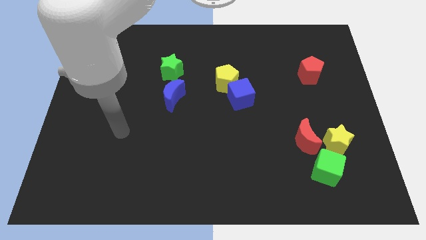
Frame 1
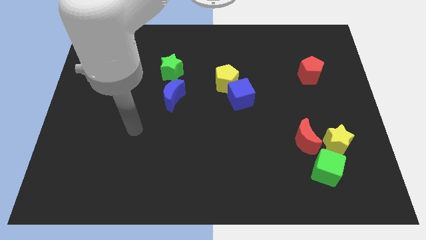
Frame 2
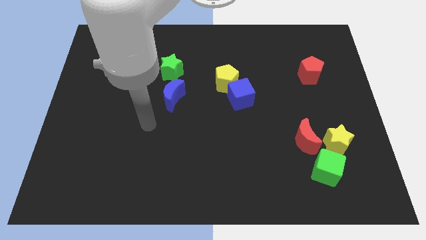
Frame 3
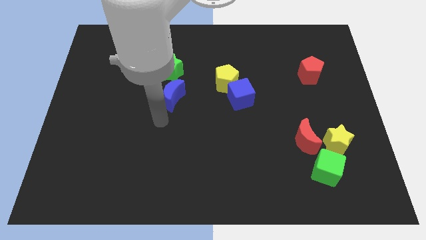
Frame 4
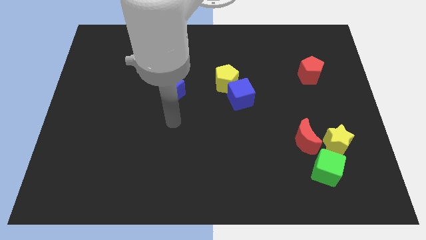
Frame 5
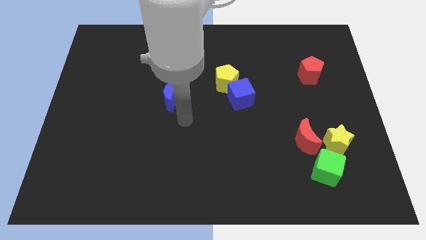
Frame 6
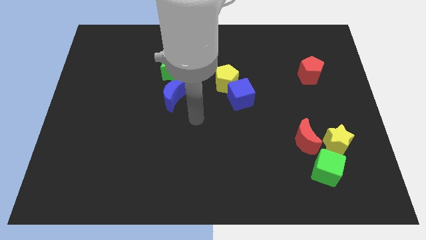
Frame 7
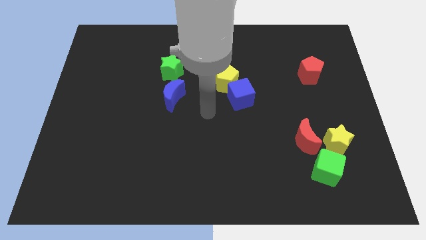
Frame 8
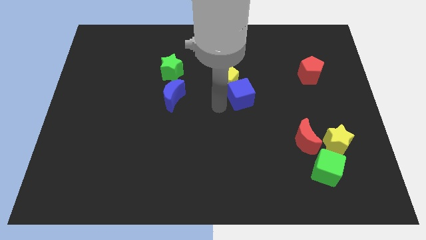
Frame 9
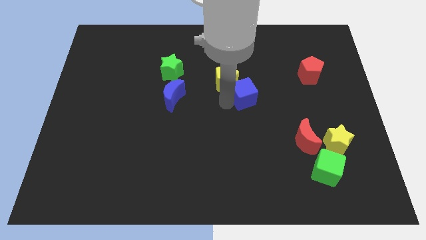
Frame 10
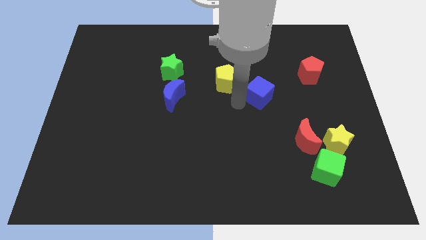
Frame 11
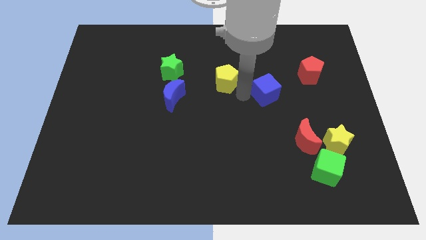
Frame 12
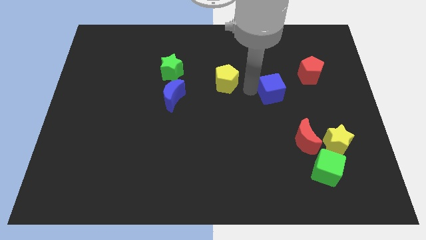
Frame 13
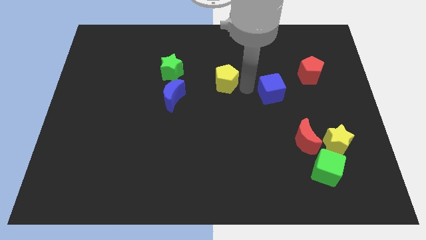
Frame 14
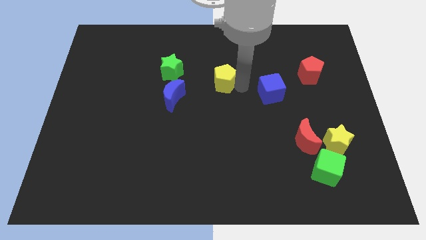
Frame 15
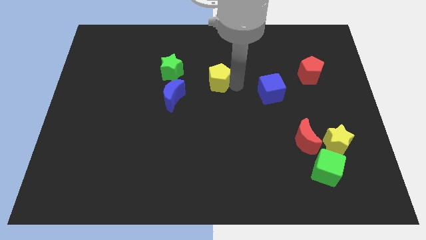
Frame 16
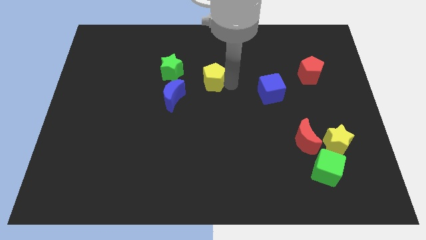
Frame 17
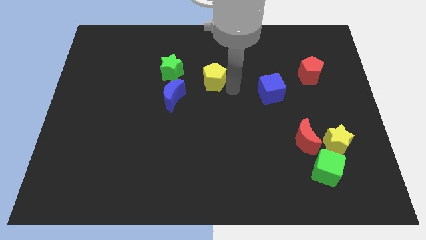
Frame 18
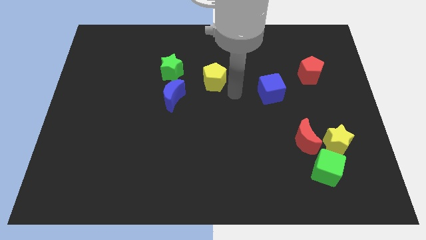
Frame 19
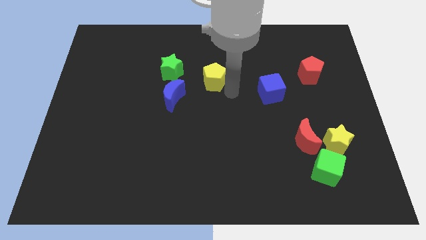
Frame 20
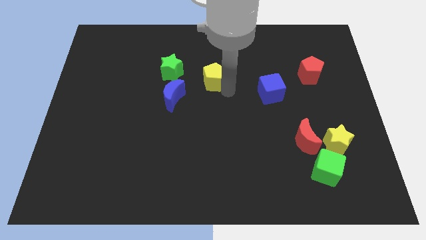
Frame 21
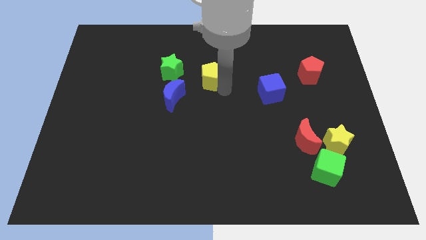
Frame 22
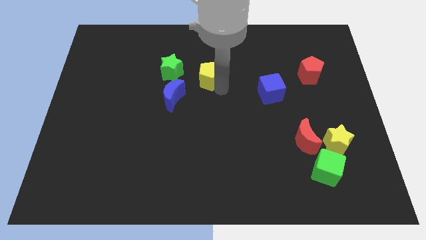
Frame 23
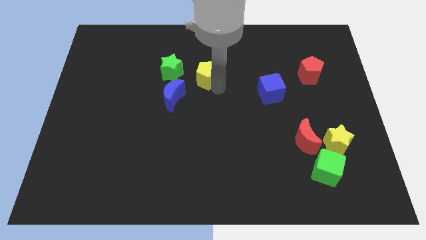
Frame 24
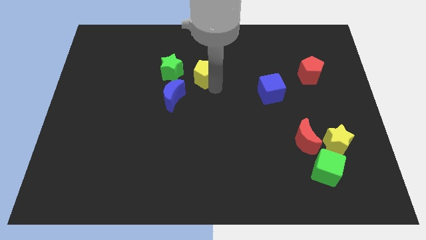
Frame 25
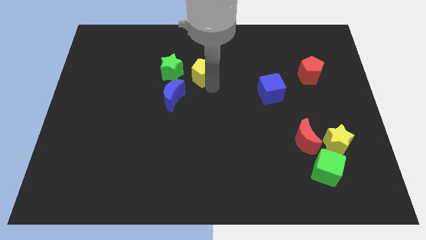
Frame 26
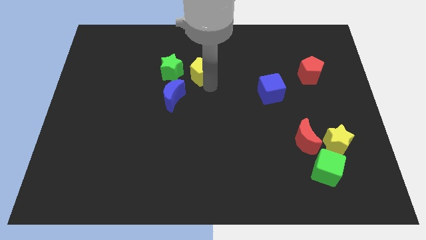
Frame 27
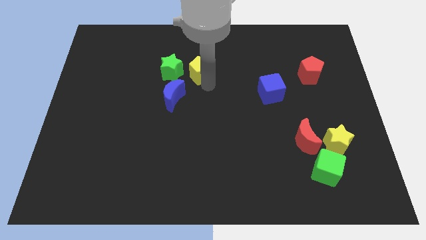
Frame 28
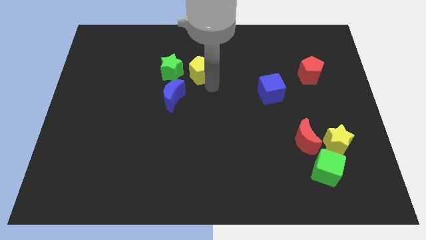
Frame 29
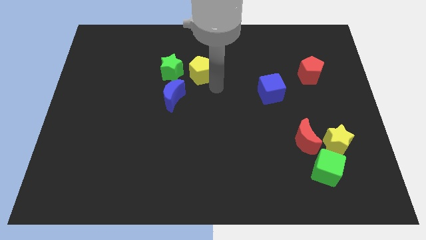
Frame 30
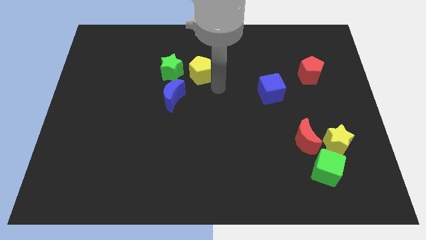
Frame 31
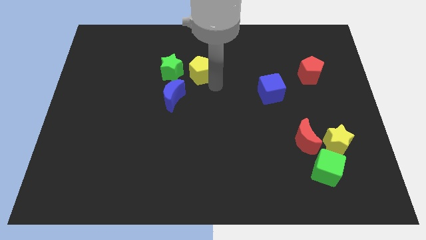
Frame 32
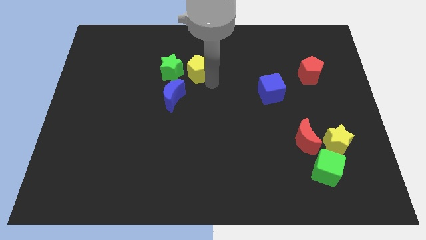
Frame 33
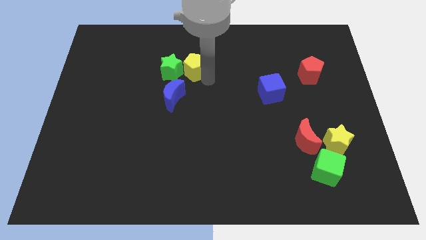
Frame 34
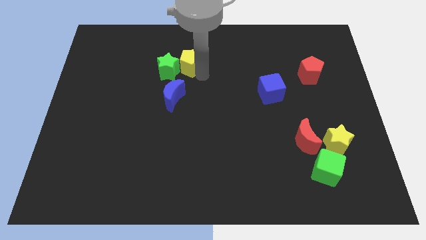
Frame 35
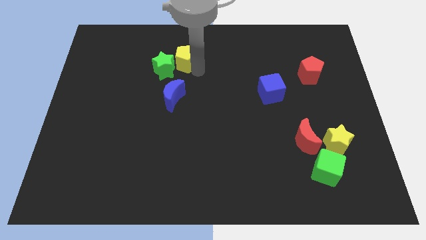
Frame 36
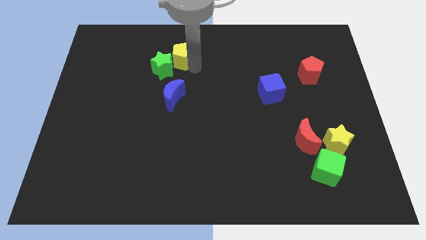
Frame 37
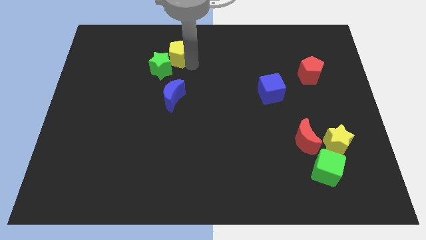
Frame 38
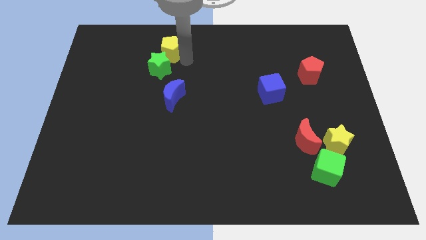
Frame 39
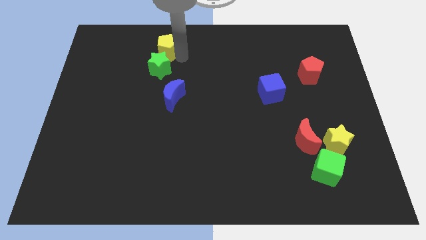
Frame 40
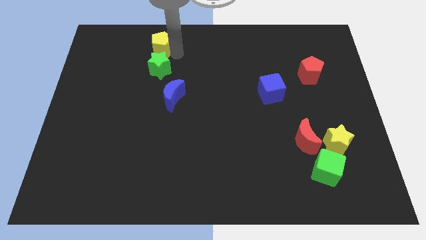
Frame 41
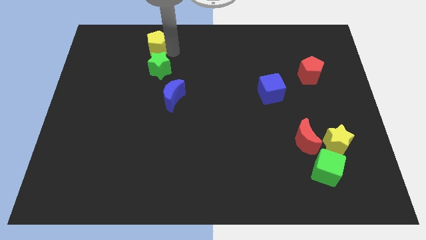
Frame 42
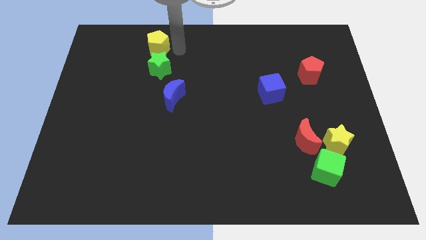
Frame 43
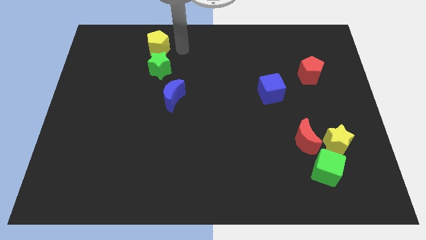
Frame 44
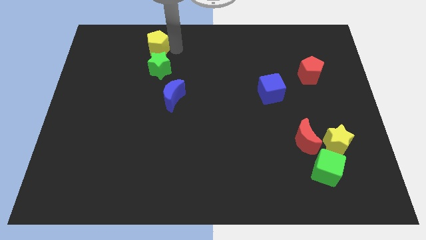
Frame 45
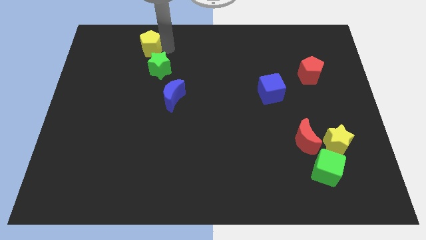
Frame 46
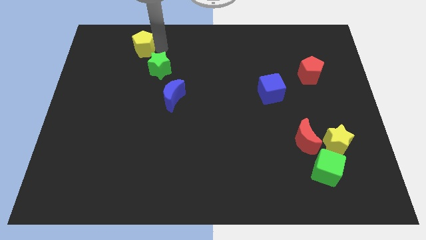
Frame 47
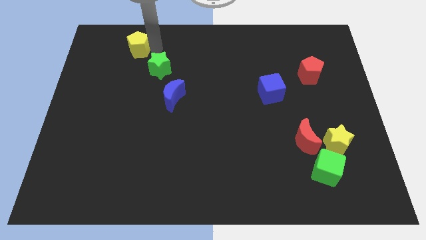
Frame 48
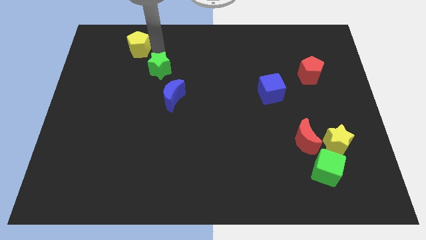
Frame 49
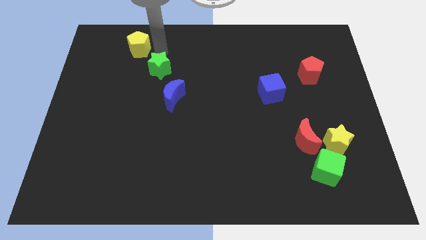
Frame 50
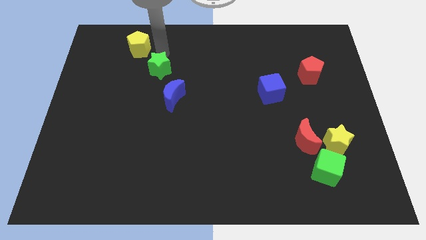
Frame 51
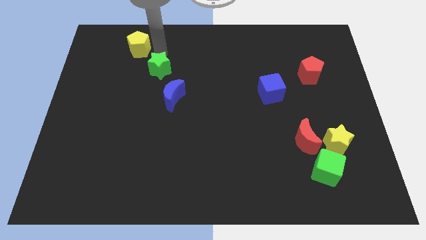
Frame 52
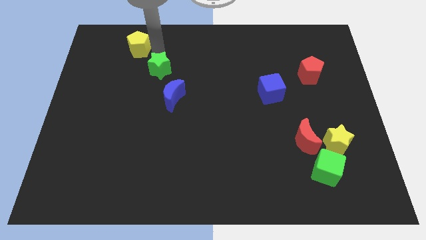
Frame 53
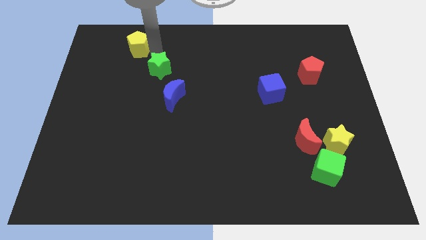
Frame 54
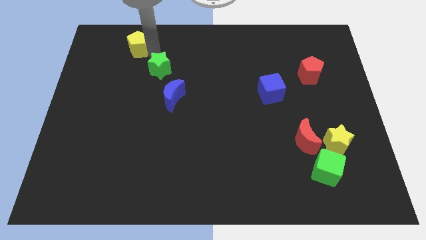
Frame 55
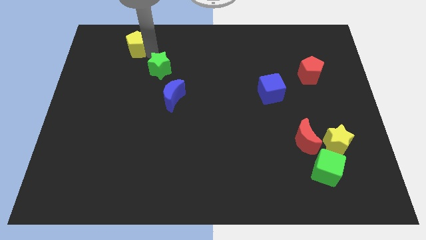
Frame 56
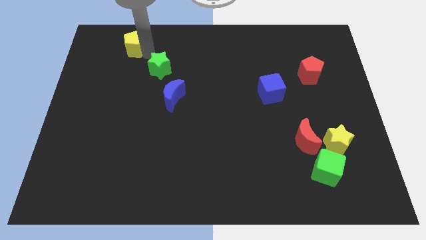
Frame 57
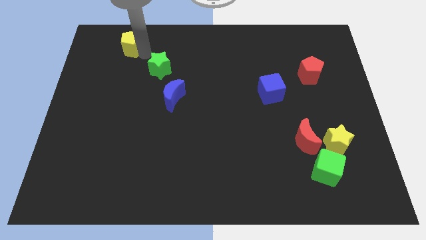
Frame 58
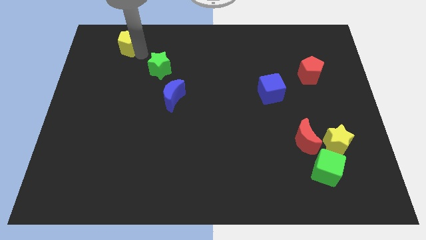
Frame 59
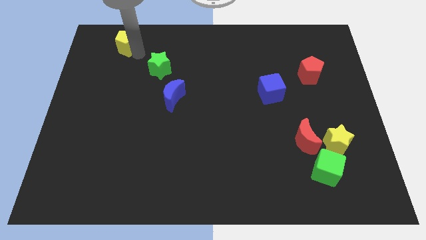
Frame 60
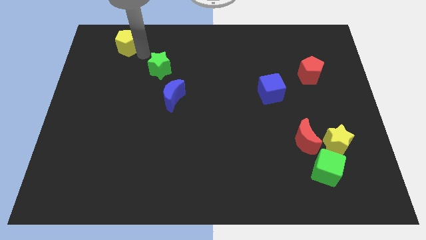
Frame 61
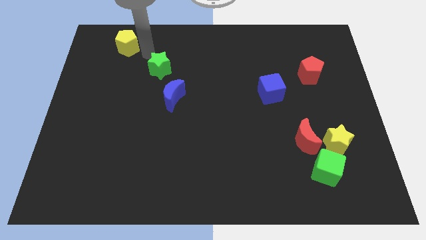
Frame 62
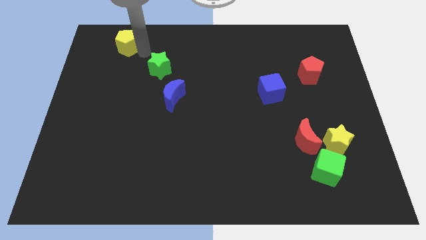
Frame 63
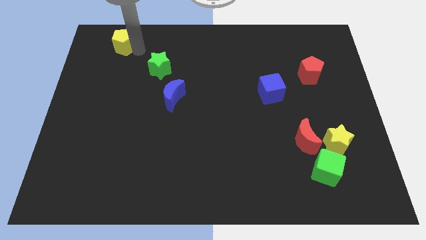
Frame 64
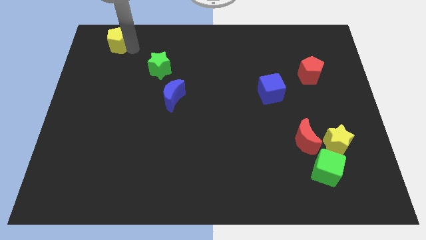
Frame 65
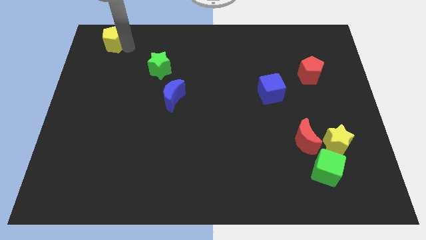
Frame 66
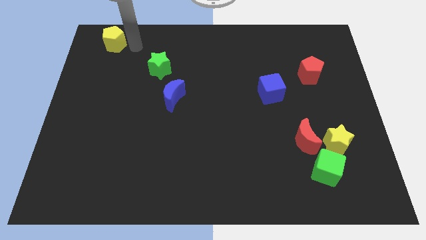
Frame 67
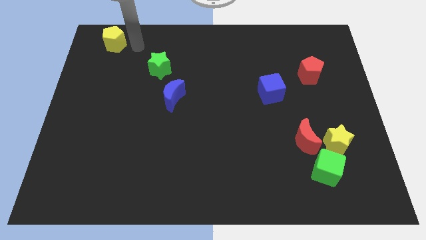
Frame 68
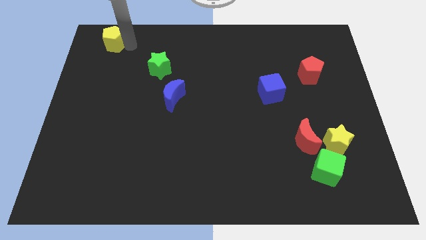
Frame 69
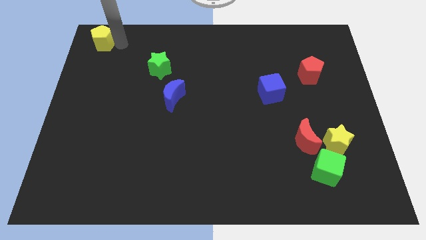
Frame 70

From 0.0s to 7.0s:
slide the yellow pentagon to the top left
